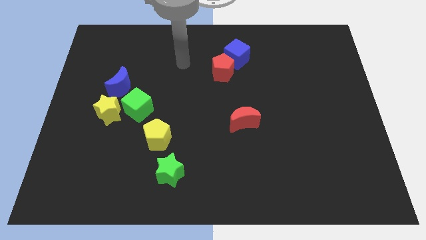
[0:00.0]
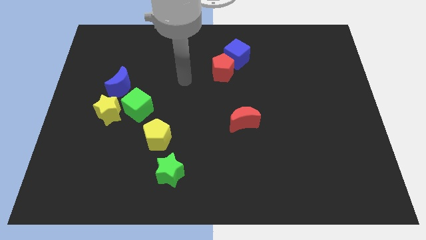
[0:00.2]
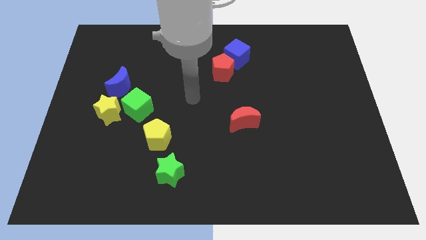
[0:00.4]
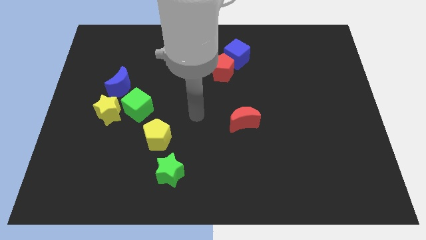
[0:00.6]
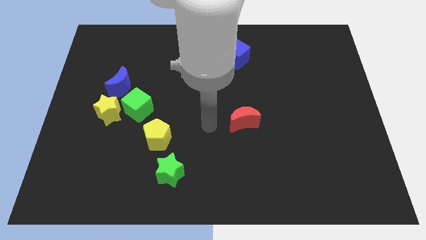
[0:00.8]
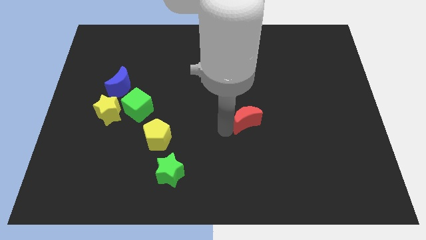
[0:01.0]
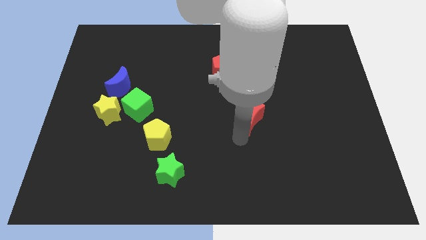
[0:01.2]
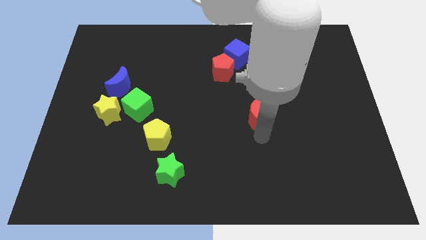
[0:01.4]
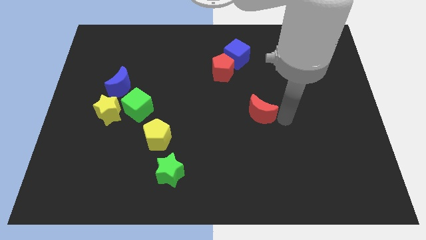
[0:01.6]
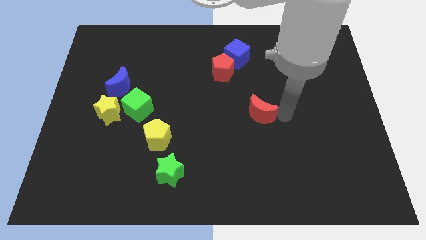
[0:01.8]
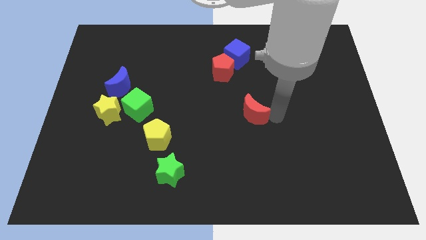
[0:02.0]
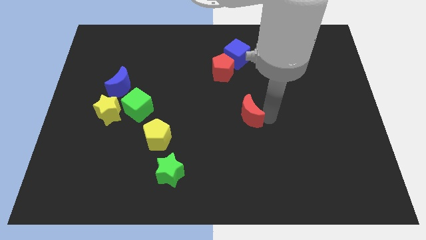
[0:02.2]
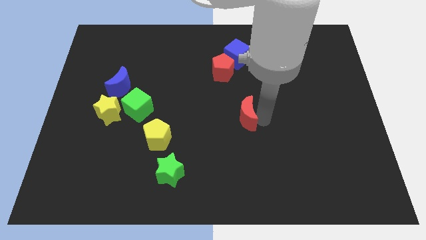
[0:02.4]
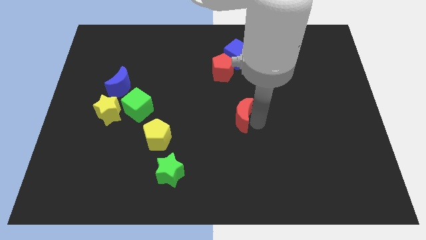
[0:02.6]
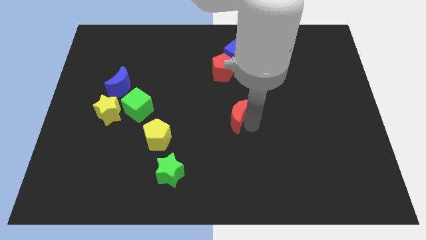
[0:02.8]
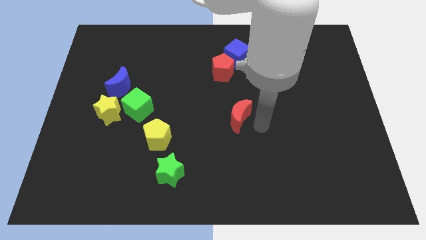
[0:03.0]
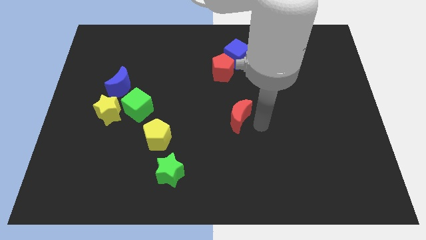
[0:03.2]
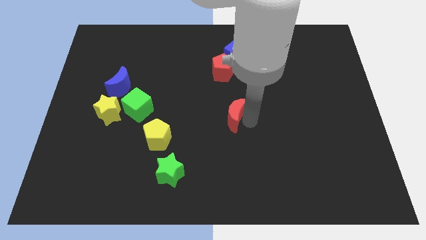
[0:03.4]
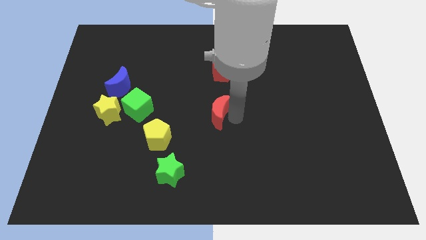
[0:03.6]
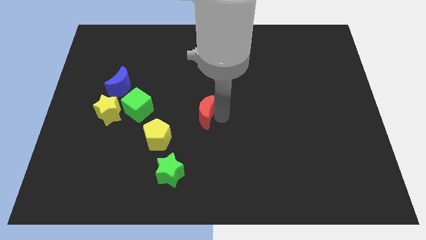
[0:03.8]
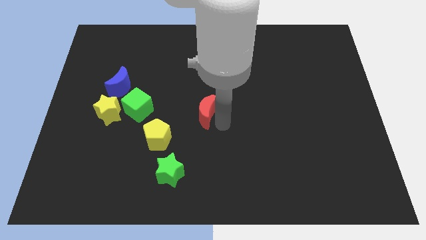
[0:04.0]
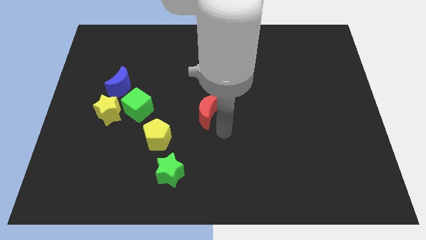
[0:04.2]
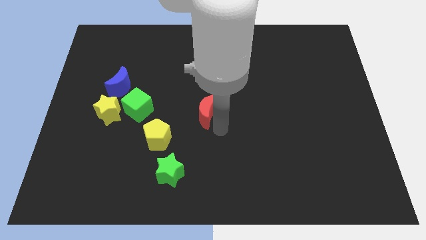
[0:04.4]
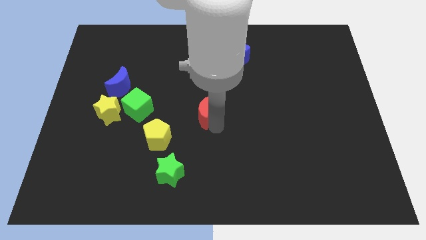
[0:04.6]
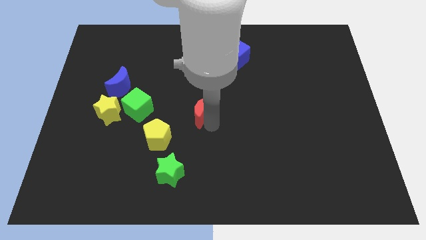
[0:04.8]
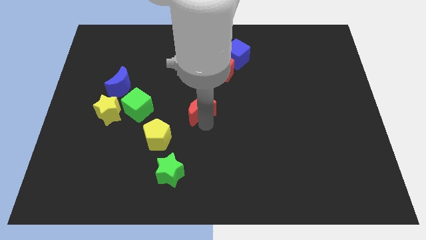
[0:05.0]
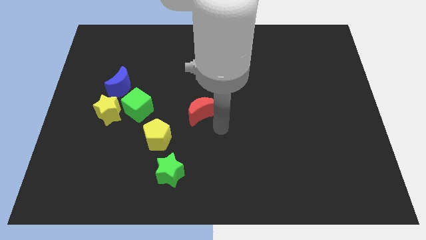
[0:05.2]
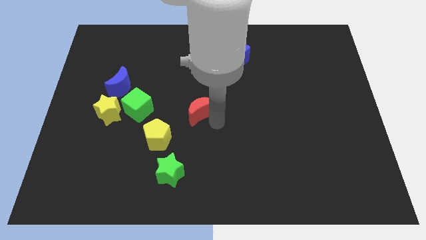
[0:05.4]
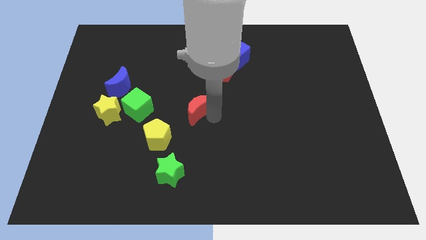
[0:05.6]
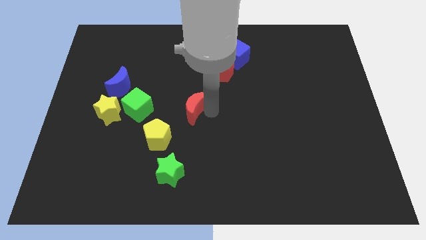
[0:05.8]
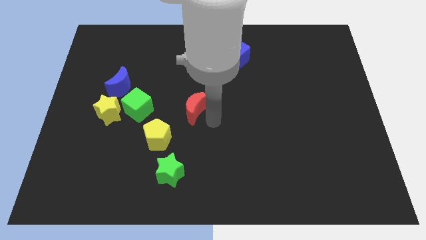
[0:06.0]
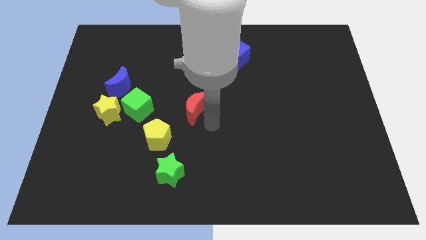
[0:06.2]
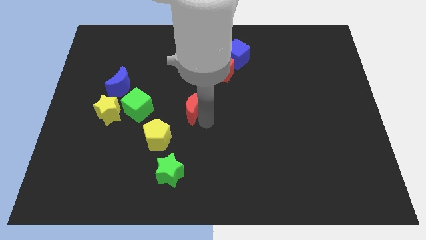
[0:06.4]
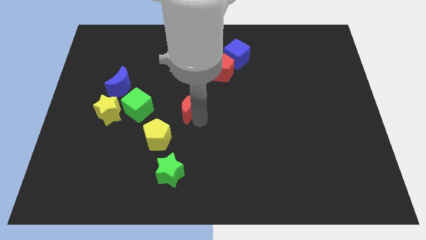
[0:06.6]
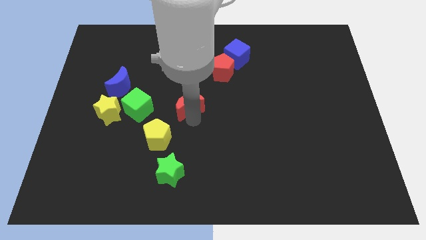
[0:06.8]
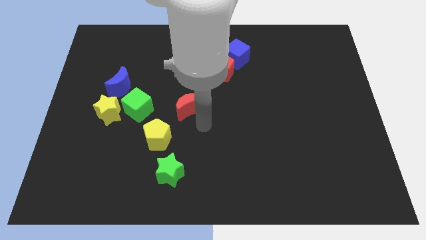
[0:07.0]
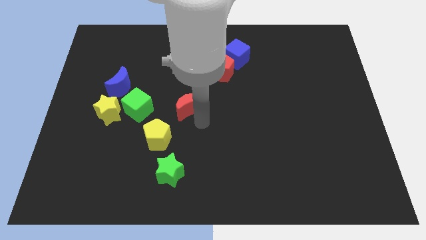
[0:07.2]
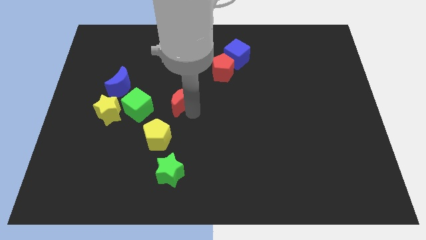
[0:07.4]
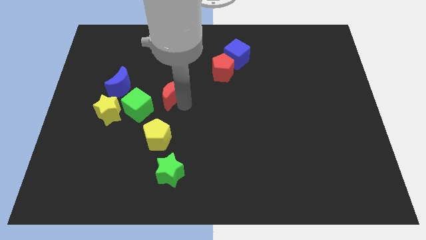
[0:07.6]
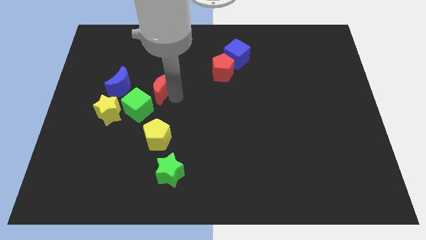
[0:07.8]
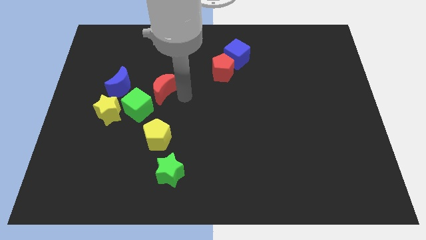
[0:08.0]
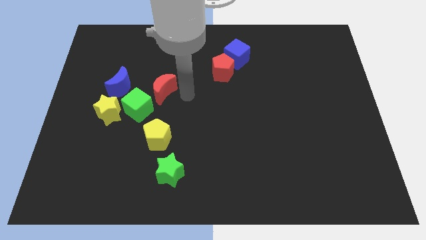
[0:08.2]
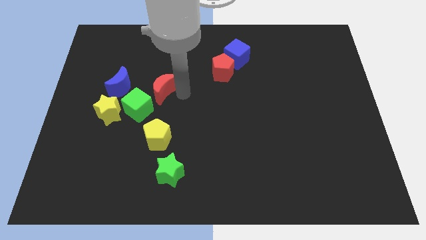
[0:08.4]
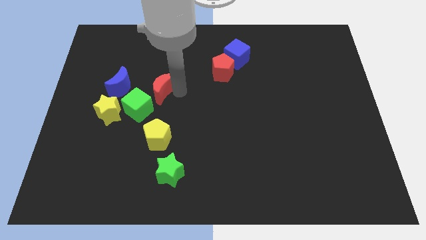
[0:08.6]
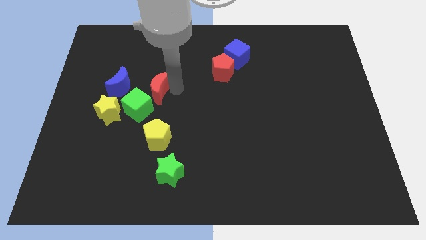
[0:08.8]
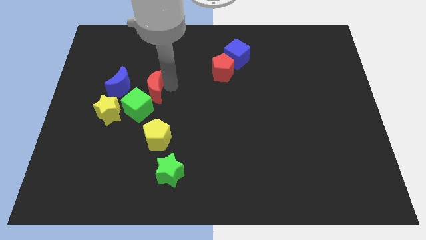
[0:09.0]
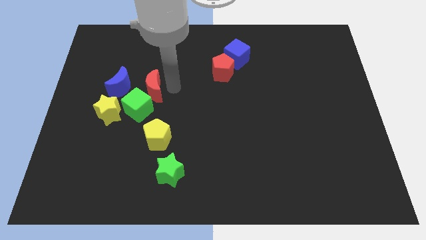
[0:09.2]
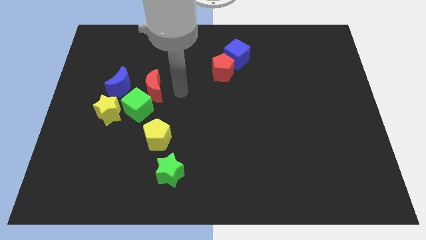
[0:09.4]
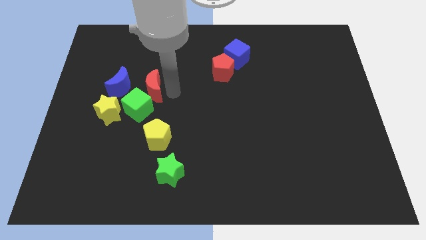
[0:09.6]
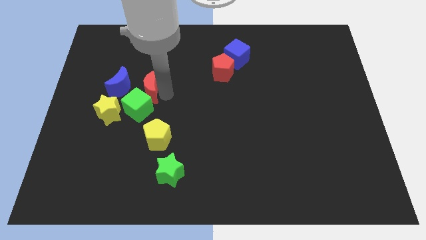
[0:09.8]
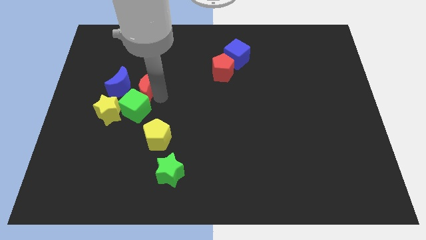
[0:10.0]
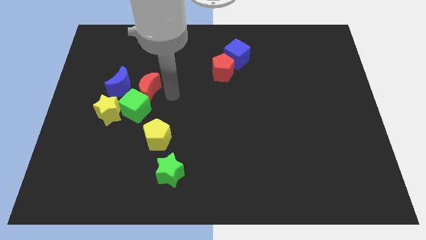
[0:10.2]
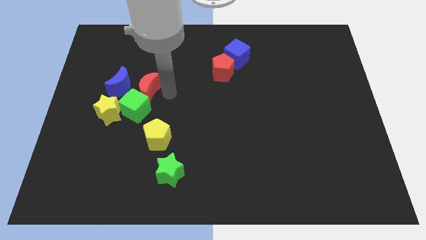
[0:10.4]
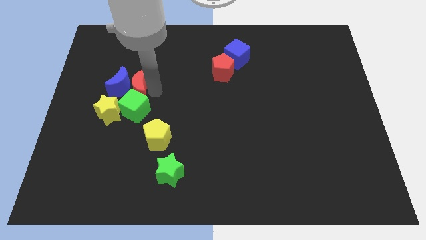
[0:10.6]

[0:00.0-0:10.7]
push the red moon next to the blue moon

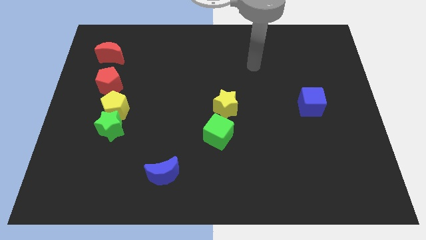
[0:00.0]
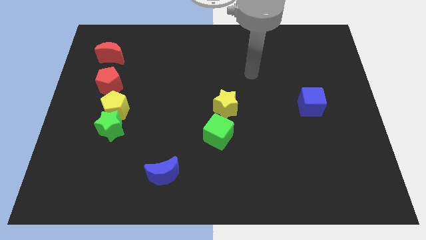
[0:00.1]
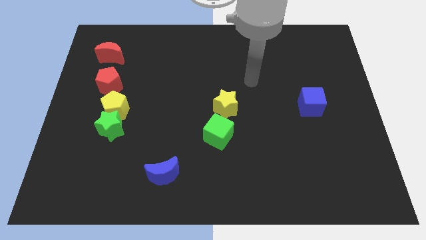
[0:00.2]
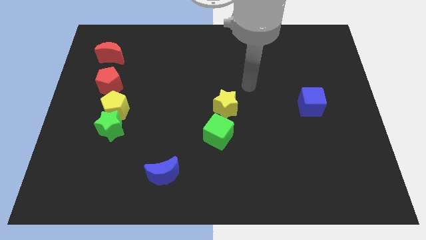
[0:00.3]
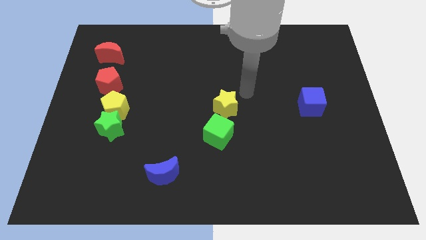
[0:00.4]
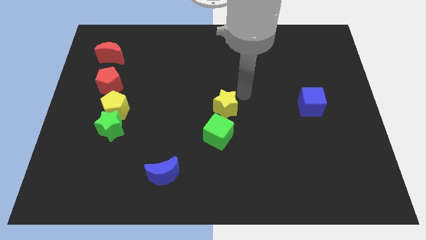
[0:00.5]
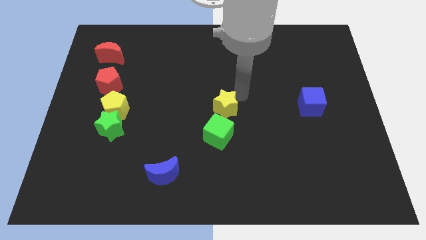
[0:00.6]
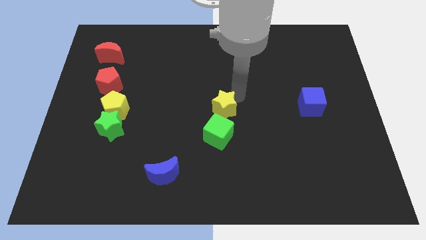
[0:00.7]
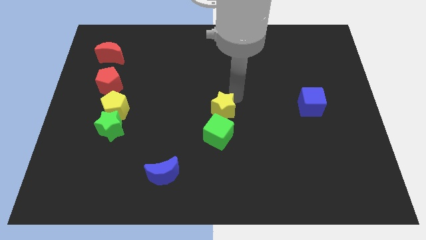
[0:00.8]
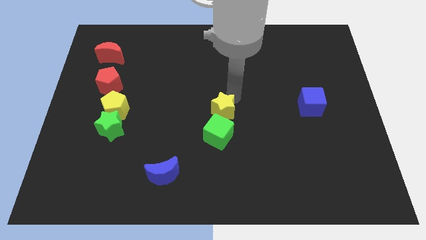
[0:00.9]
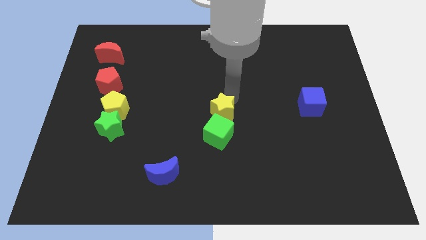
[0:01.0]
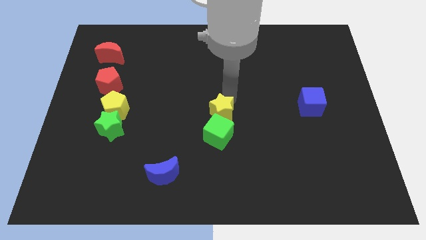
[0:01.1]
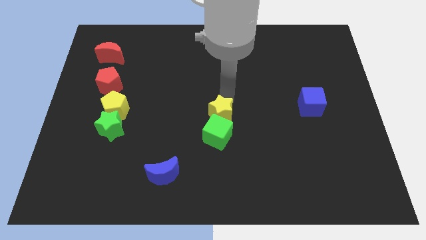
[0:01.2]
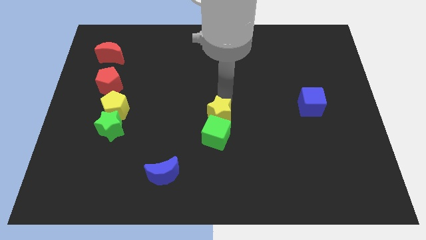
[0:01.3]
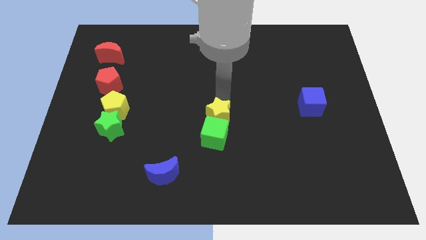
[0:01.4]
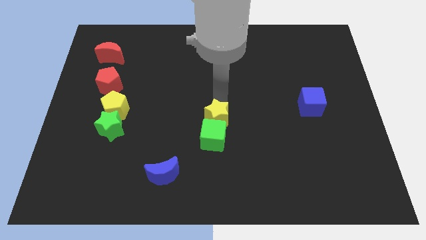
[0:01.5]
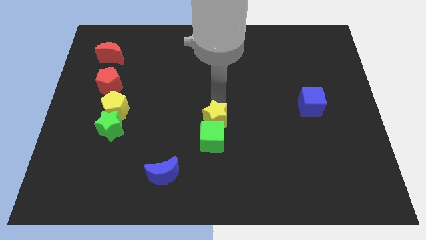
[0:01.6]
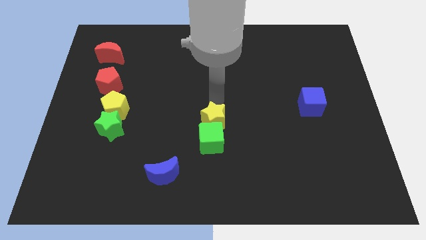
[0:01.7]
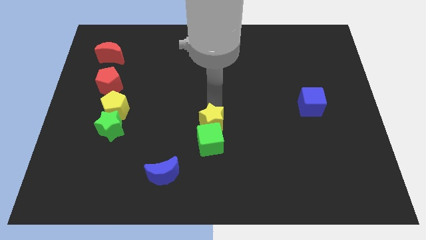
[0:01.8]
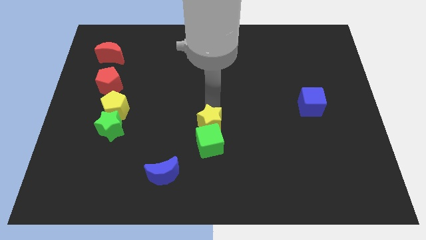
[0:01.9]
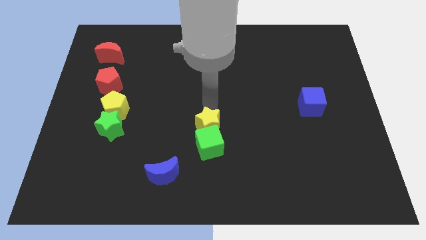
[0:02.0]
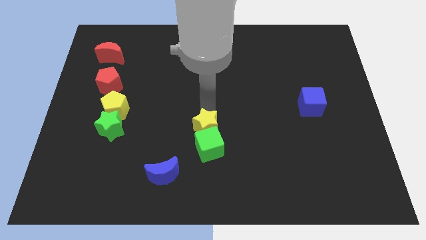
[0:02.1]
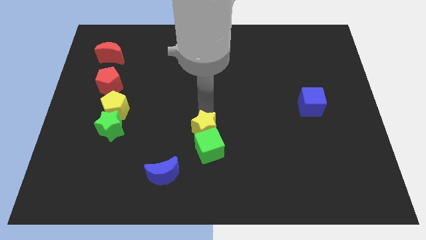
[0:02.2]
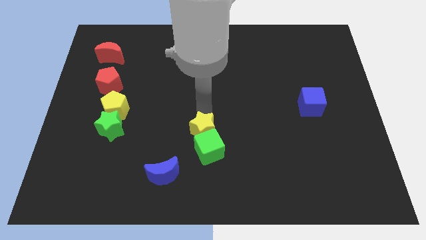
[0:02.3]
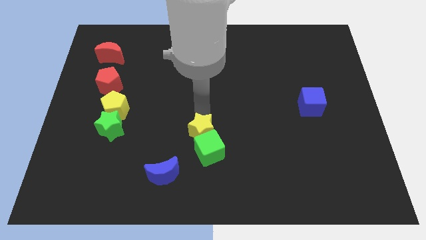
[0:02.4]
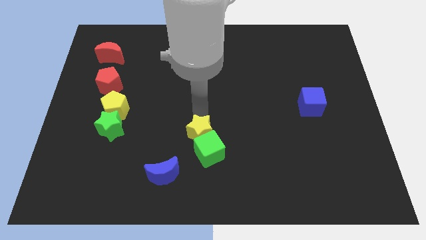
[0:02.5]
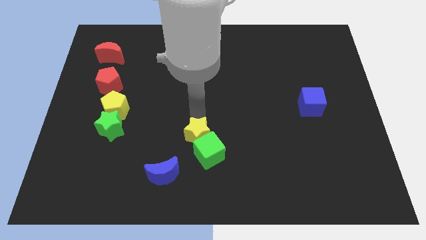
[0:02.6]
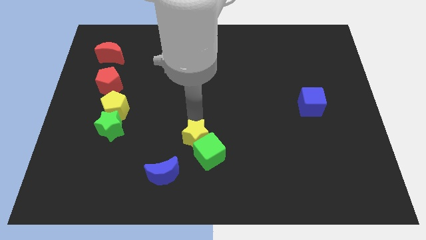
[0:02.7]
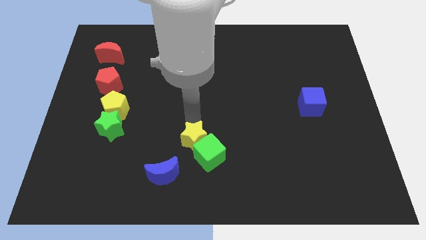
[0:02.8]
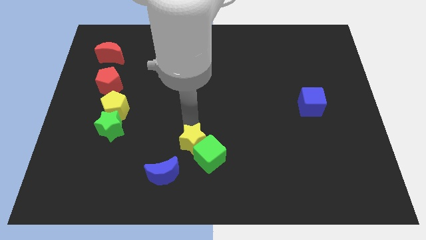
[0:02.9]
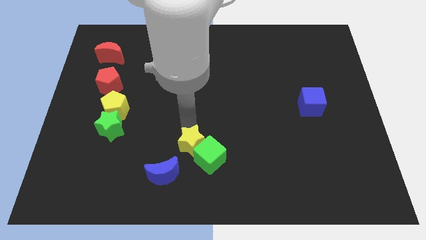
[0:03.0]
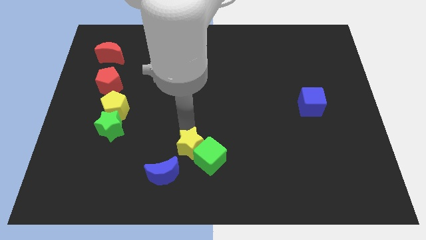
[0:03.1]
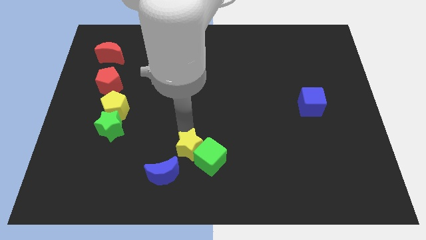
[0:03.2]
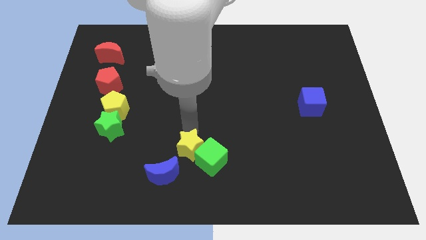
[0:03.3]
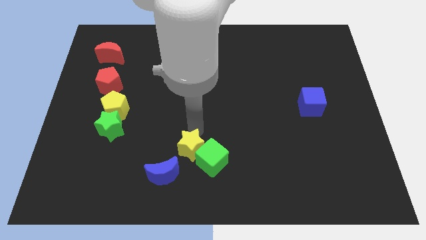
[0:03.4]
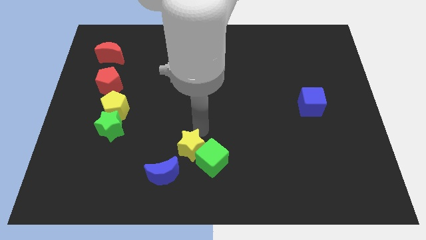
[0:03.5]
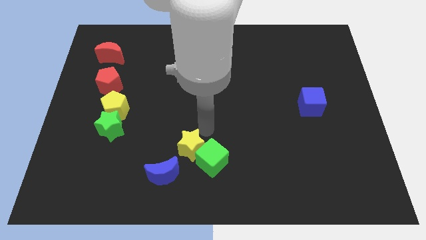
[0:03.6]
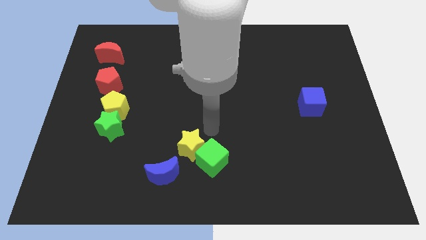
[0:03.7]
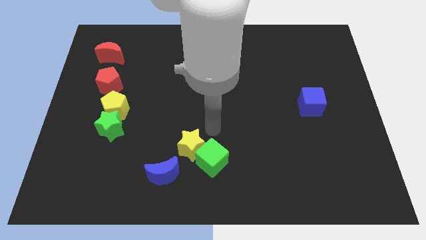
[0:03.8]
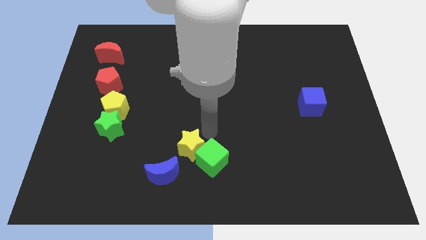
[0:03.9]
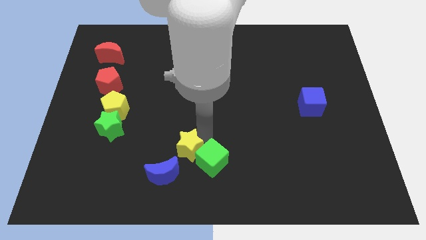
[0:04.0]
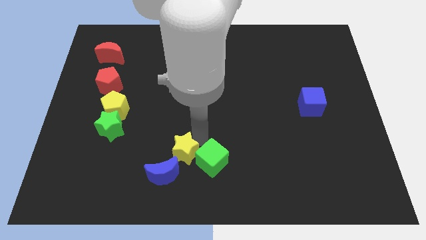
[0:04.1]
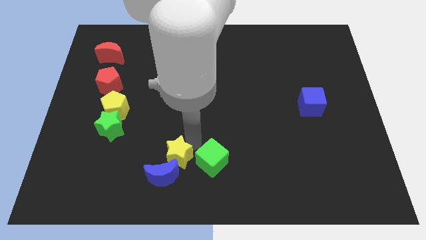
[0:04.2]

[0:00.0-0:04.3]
put the yellow star next to the blue moon
